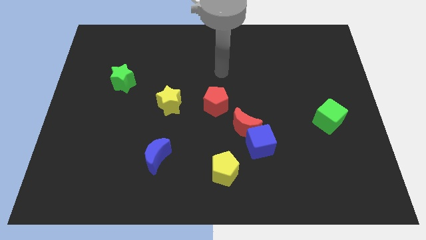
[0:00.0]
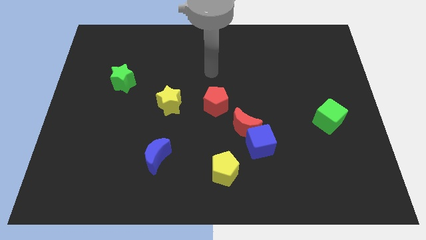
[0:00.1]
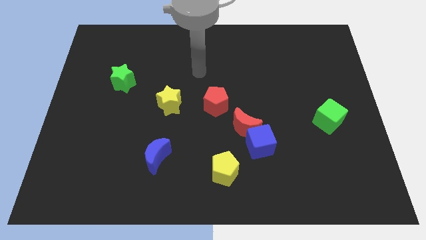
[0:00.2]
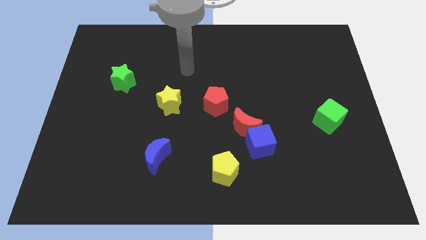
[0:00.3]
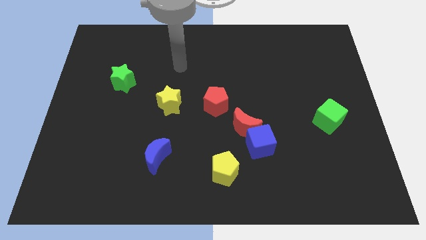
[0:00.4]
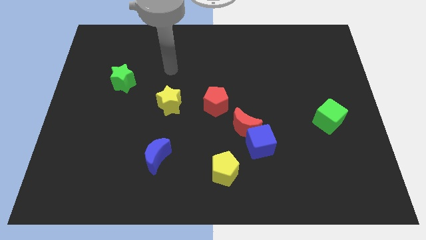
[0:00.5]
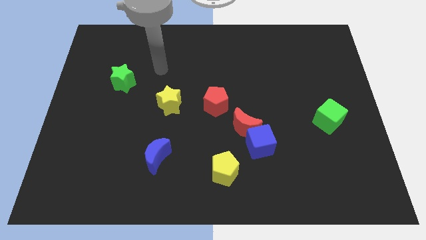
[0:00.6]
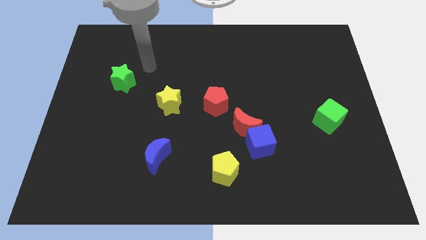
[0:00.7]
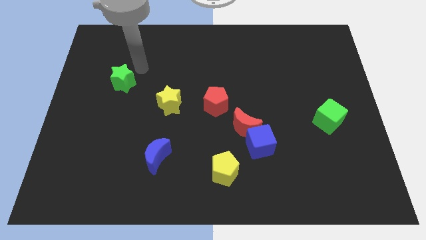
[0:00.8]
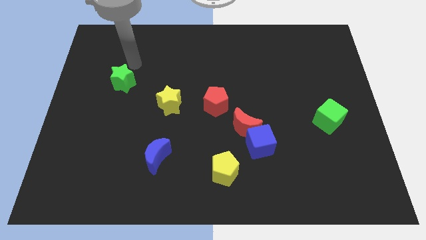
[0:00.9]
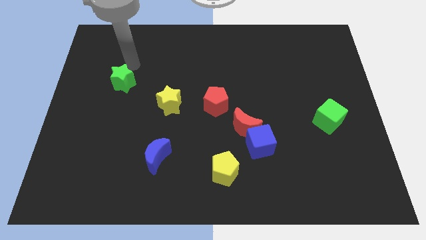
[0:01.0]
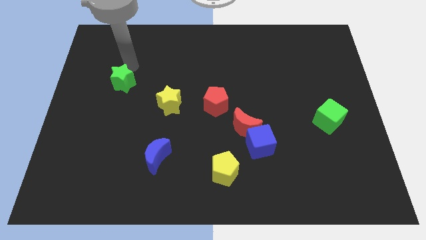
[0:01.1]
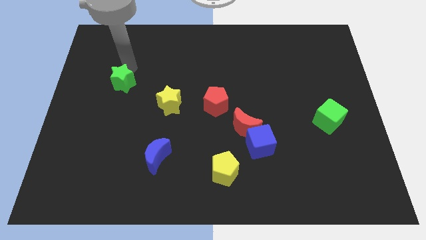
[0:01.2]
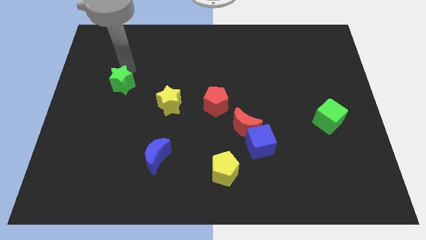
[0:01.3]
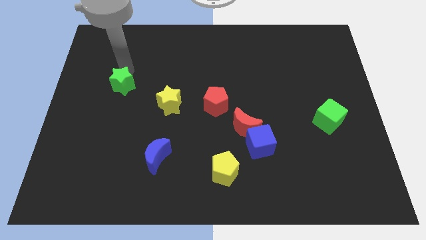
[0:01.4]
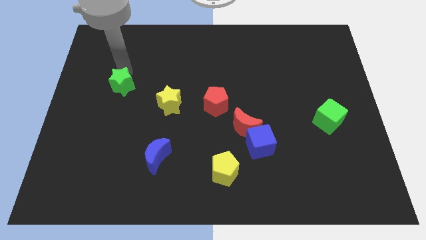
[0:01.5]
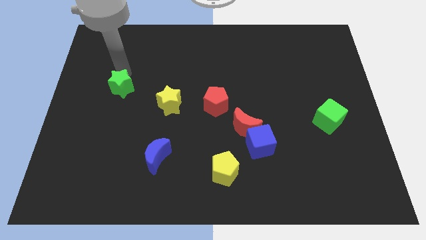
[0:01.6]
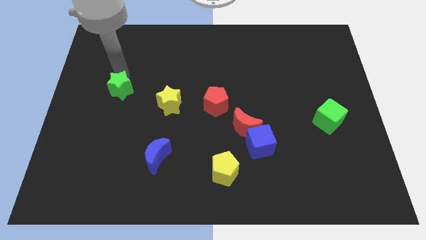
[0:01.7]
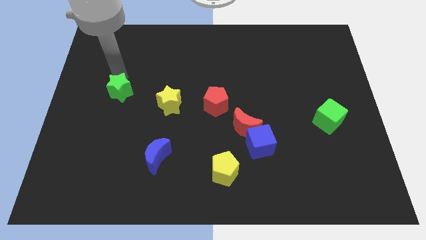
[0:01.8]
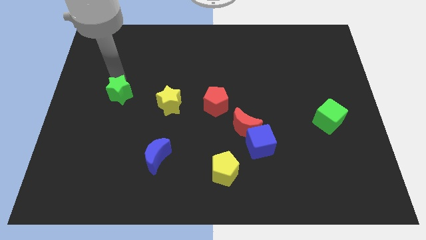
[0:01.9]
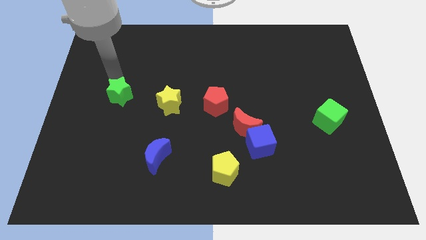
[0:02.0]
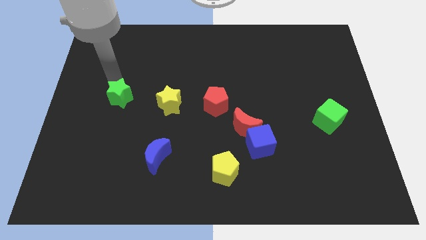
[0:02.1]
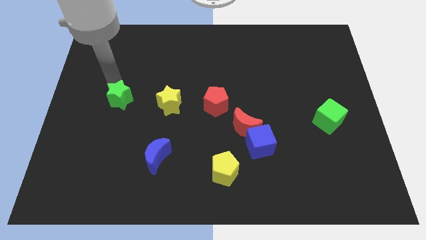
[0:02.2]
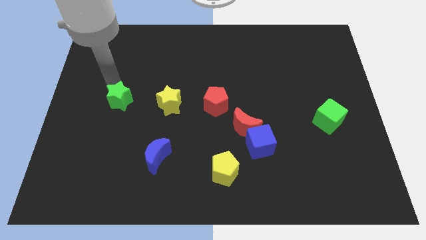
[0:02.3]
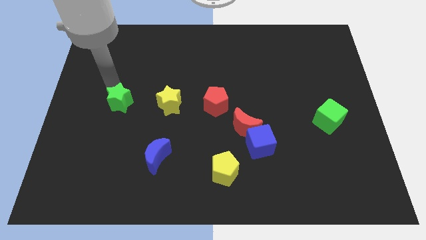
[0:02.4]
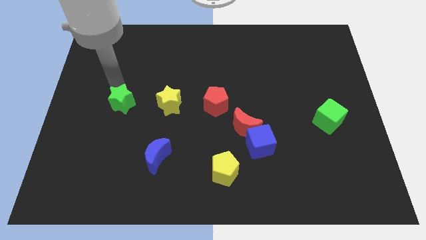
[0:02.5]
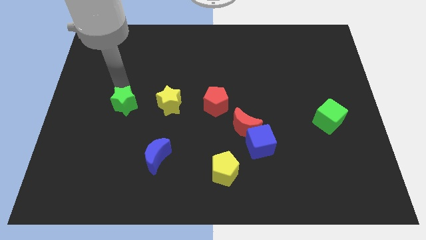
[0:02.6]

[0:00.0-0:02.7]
slide the green star downwards a bit

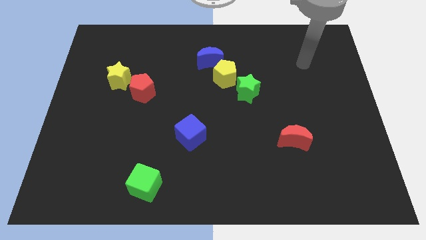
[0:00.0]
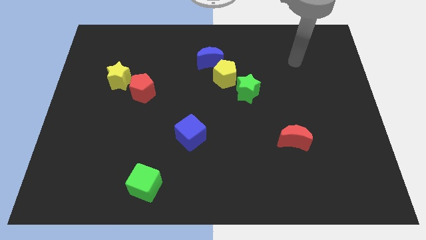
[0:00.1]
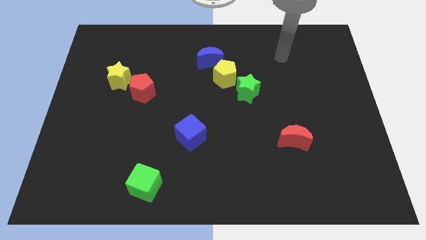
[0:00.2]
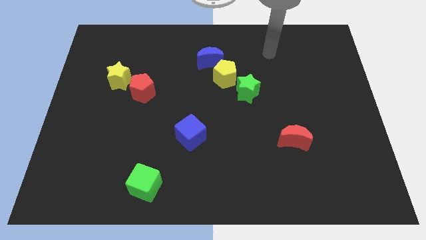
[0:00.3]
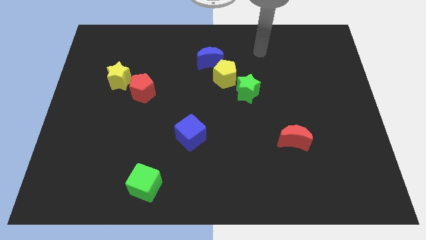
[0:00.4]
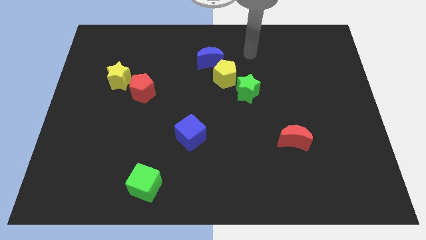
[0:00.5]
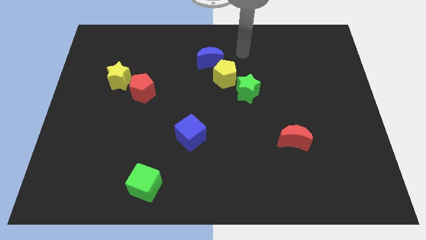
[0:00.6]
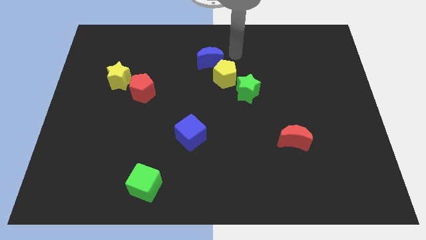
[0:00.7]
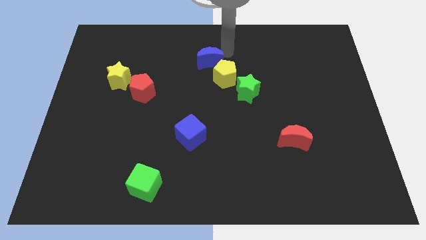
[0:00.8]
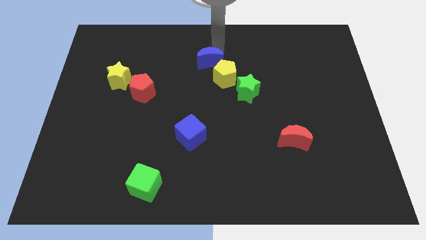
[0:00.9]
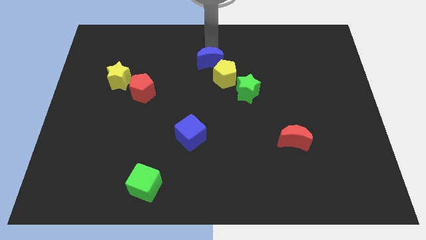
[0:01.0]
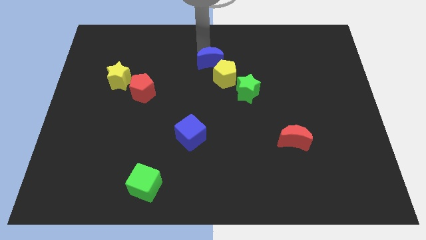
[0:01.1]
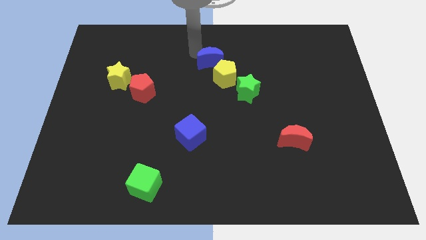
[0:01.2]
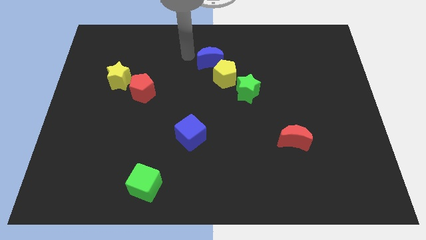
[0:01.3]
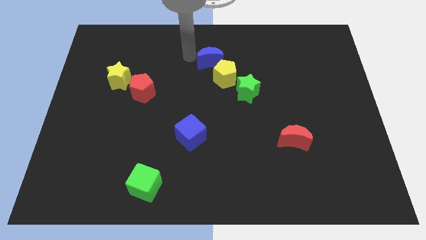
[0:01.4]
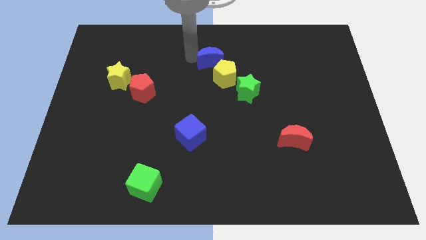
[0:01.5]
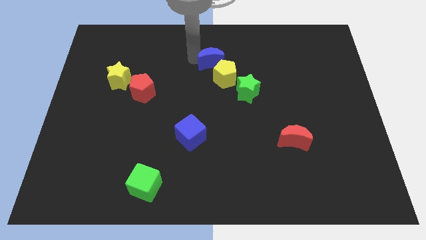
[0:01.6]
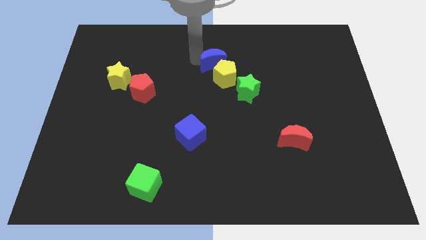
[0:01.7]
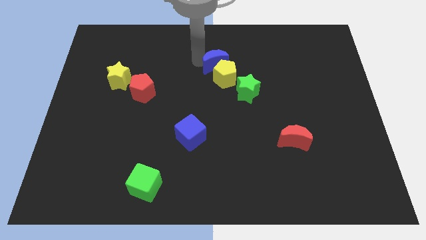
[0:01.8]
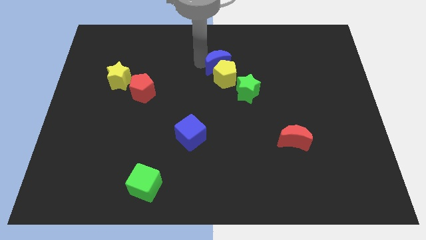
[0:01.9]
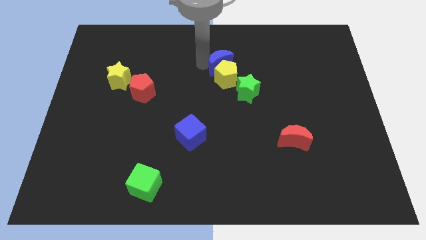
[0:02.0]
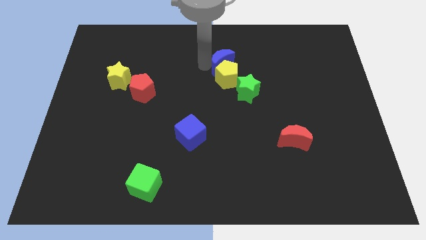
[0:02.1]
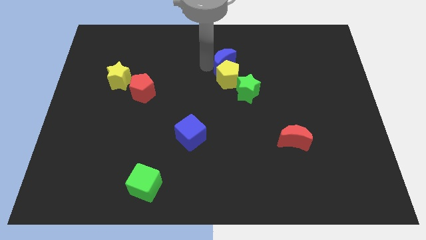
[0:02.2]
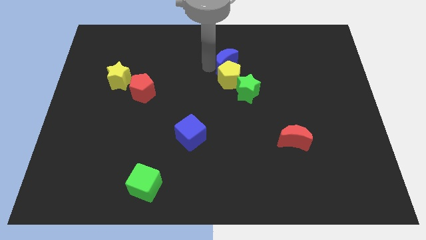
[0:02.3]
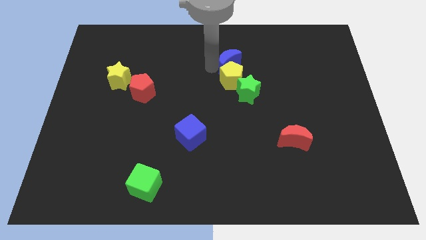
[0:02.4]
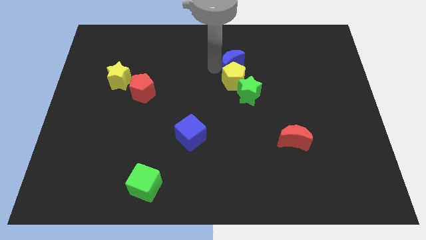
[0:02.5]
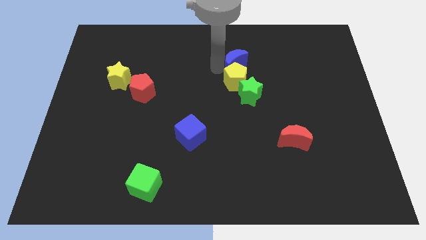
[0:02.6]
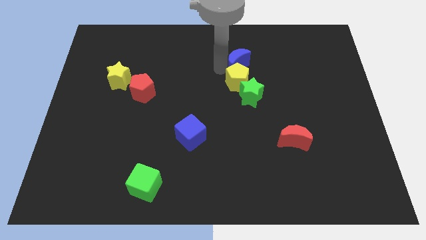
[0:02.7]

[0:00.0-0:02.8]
move the blue moon right a little

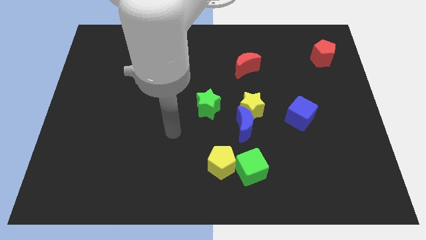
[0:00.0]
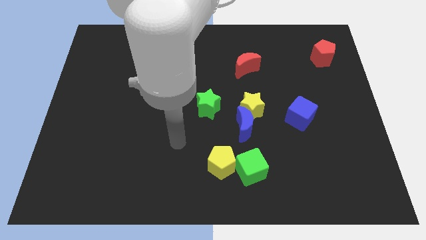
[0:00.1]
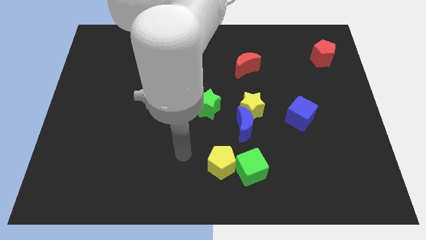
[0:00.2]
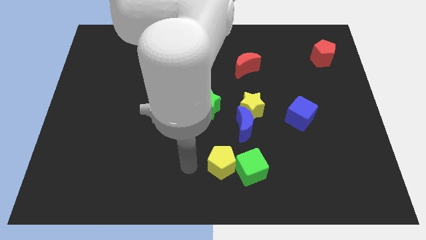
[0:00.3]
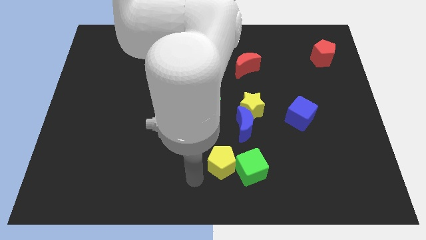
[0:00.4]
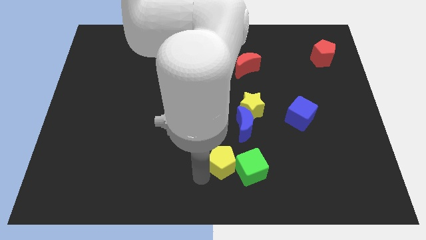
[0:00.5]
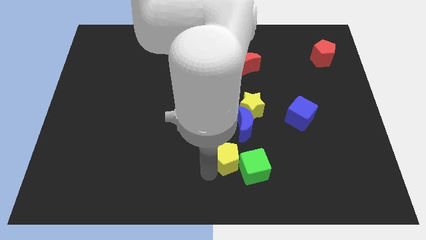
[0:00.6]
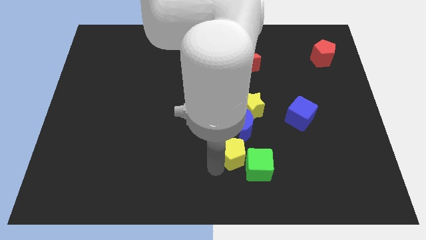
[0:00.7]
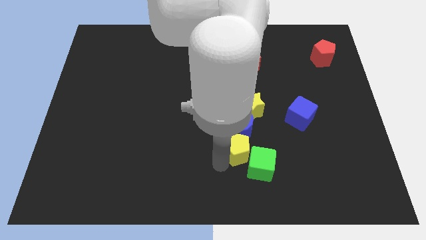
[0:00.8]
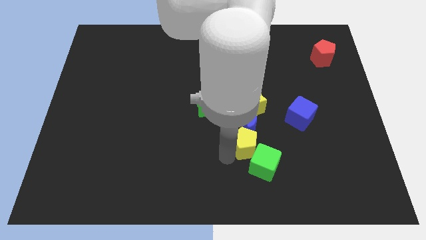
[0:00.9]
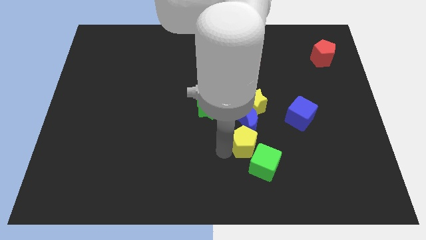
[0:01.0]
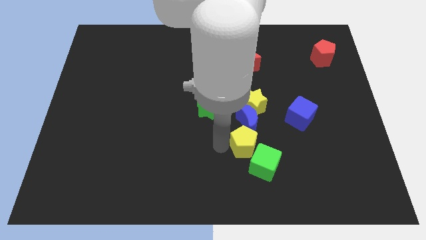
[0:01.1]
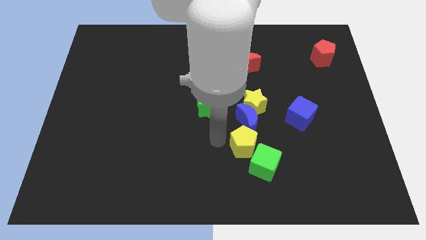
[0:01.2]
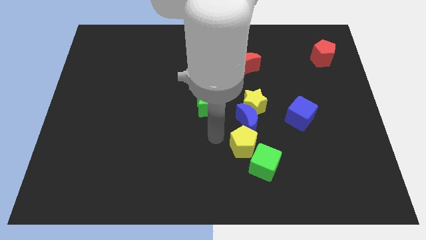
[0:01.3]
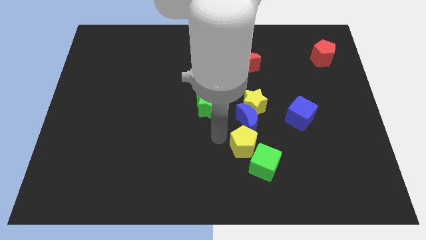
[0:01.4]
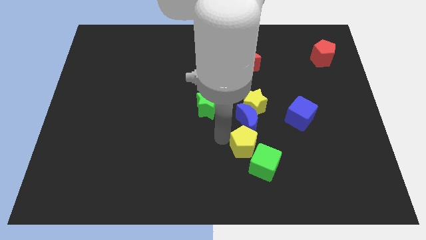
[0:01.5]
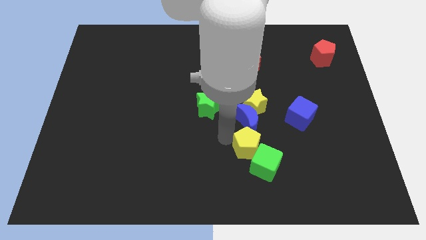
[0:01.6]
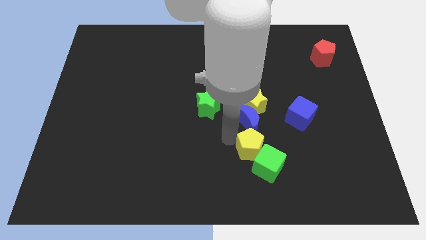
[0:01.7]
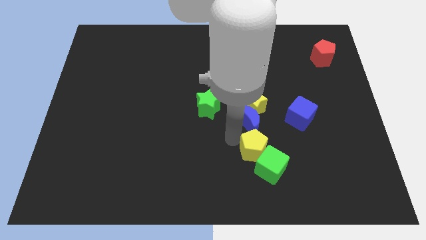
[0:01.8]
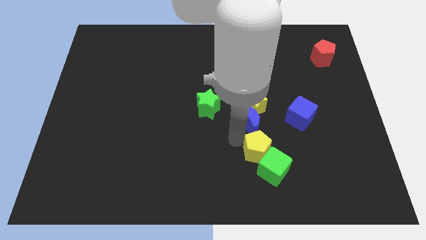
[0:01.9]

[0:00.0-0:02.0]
slide the yellow pentagon somewhat right

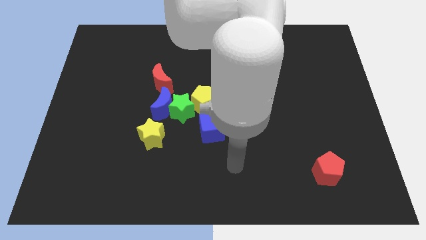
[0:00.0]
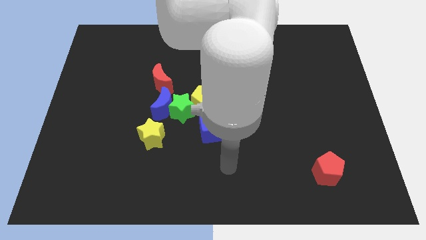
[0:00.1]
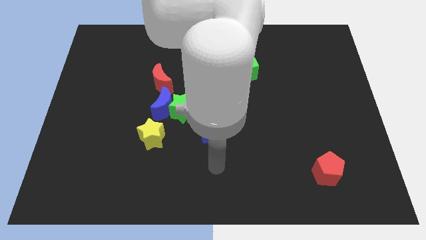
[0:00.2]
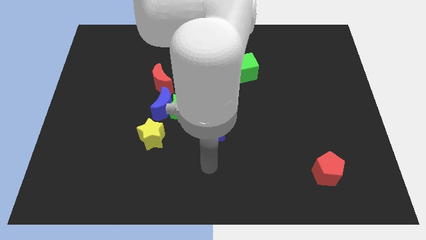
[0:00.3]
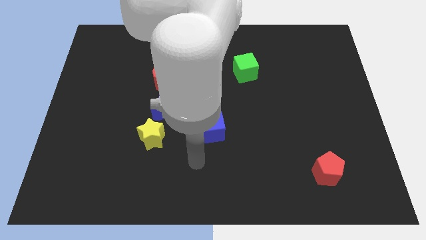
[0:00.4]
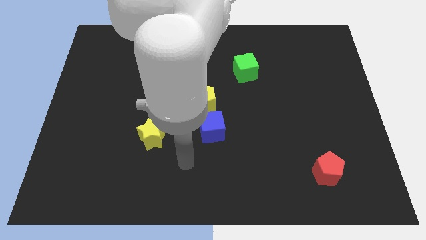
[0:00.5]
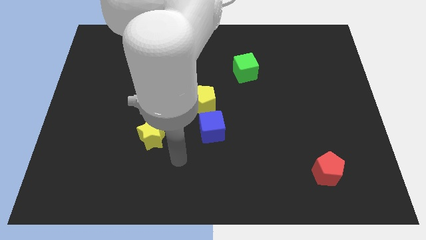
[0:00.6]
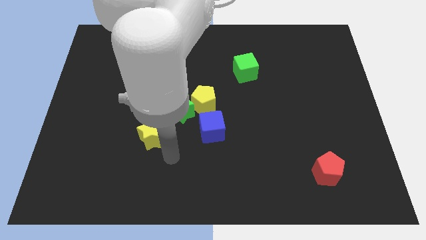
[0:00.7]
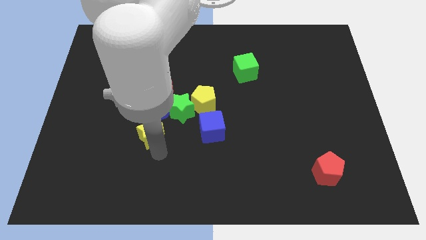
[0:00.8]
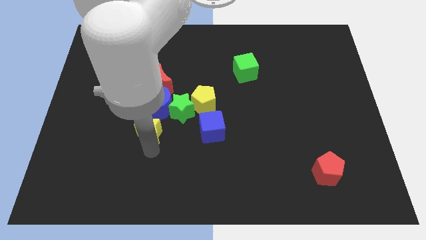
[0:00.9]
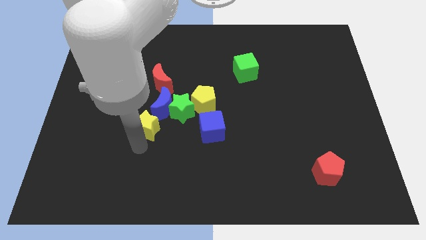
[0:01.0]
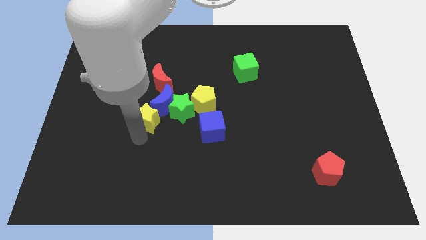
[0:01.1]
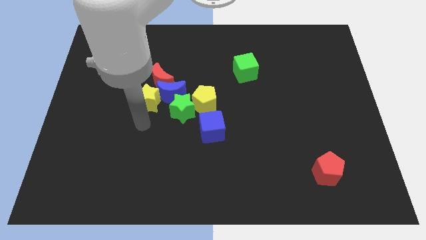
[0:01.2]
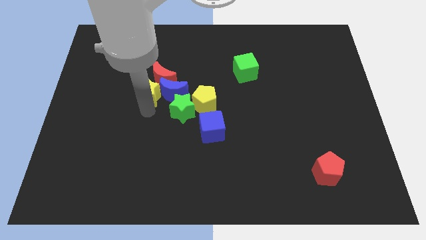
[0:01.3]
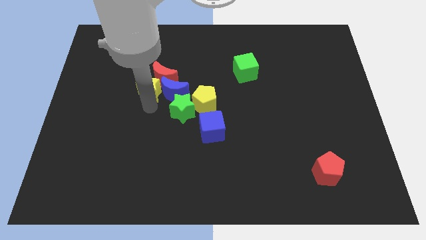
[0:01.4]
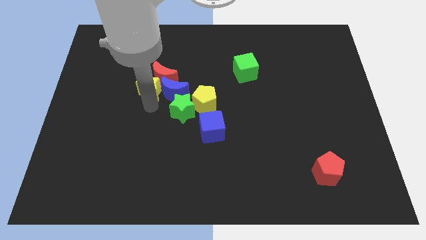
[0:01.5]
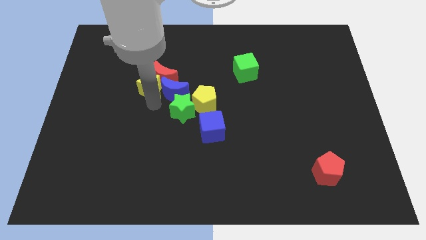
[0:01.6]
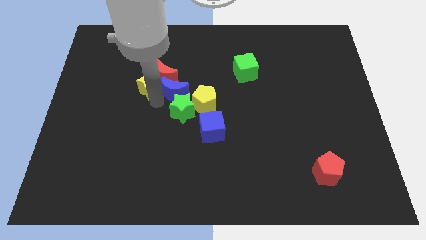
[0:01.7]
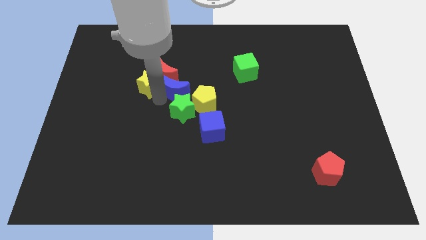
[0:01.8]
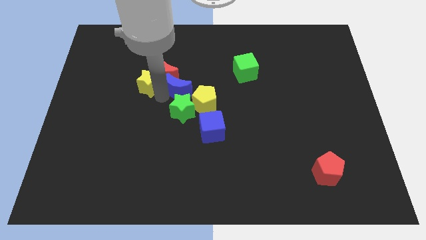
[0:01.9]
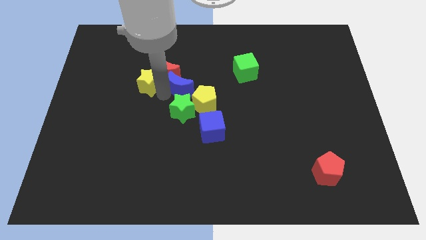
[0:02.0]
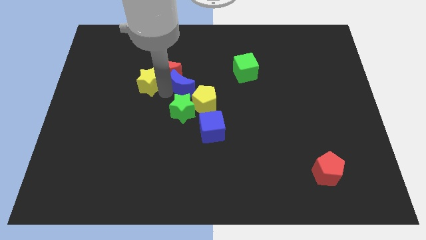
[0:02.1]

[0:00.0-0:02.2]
slide the blue moon a bit up and right
